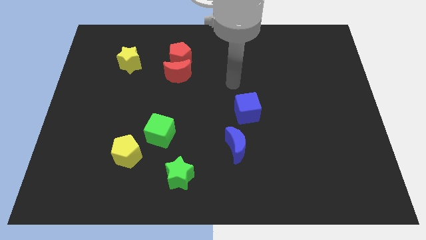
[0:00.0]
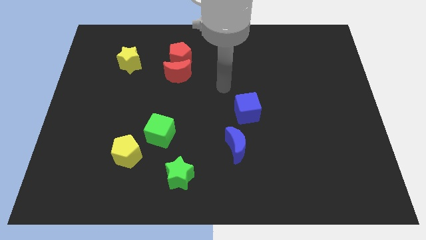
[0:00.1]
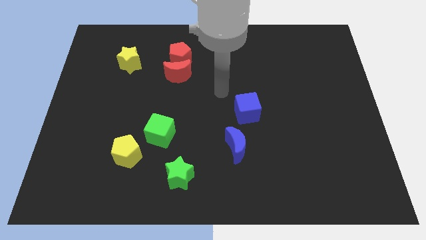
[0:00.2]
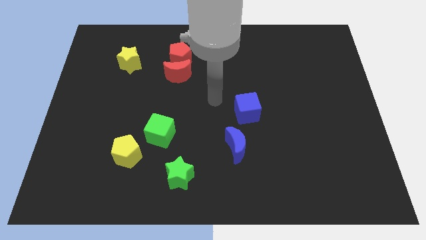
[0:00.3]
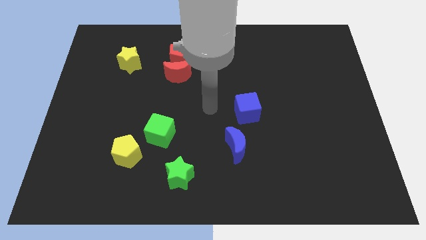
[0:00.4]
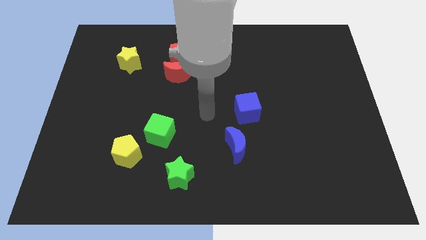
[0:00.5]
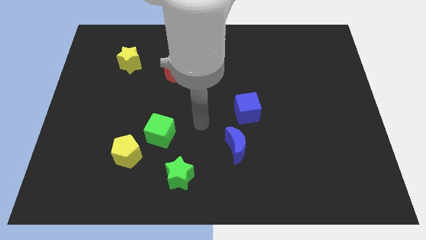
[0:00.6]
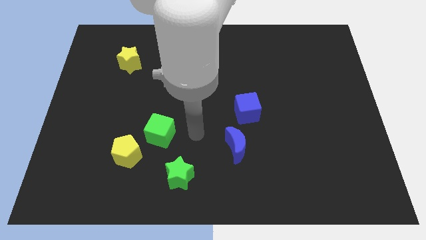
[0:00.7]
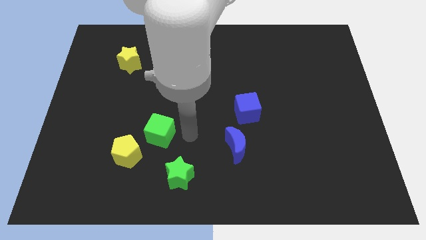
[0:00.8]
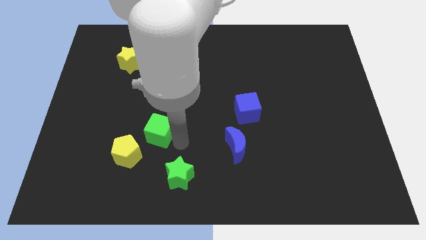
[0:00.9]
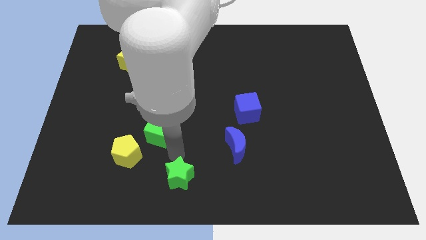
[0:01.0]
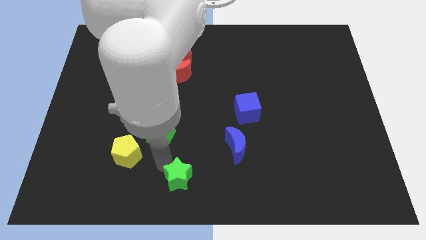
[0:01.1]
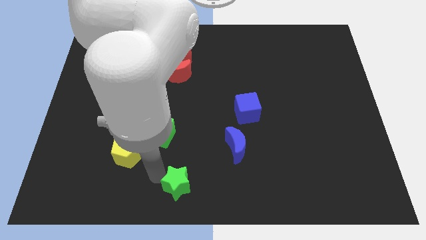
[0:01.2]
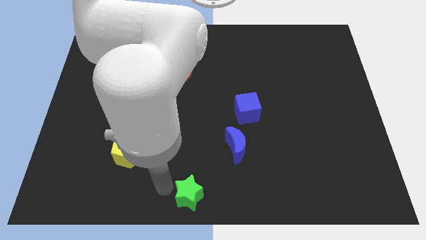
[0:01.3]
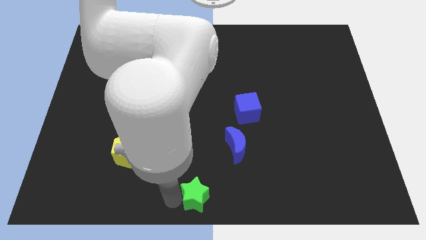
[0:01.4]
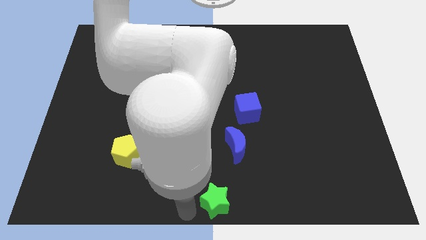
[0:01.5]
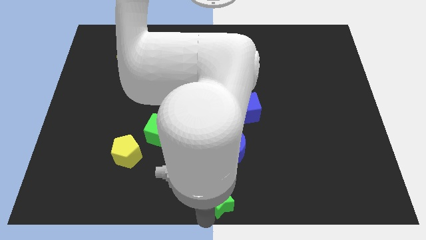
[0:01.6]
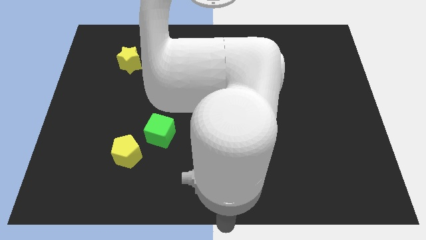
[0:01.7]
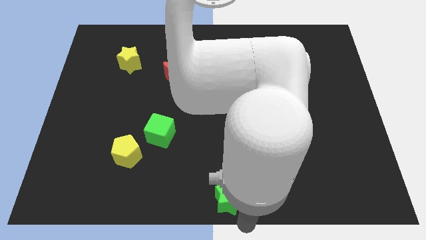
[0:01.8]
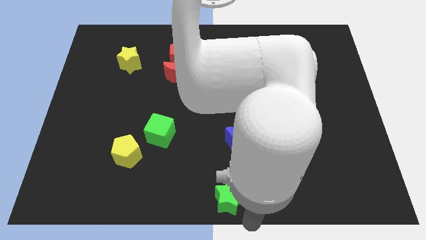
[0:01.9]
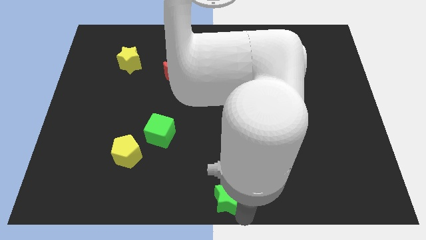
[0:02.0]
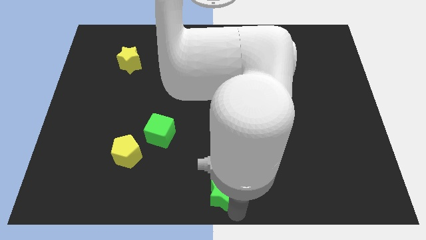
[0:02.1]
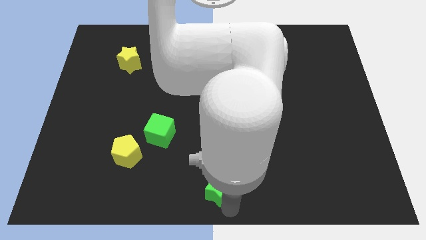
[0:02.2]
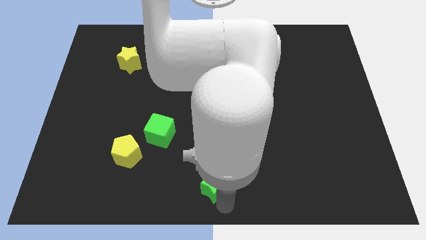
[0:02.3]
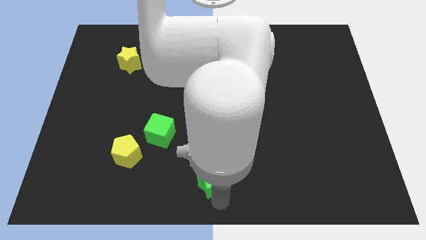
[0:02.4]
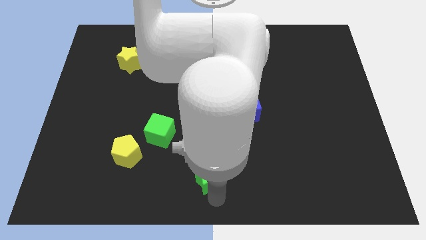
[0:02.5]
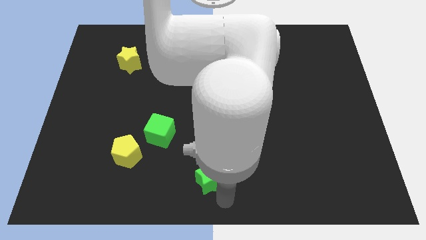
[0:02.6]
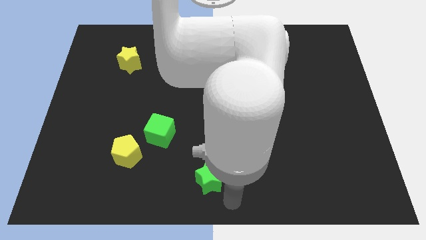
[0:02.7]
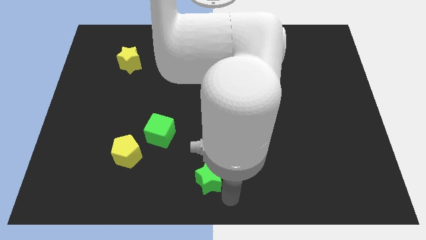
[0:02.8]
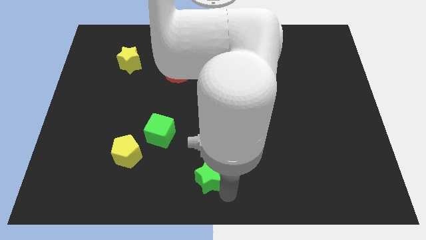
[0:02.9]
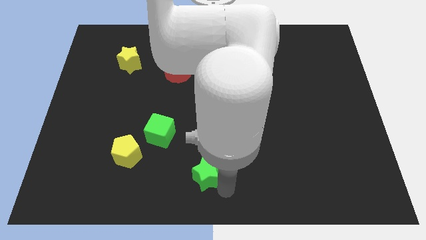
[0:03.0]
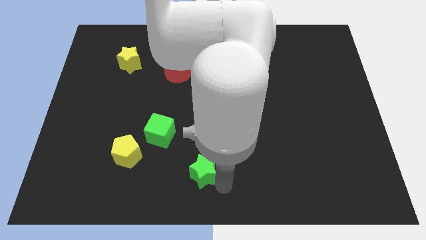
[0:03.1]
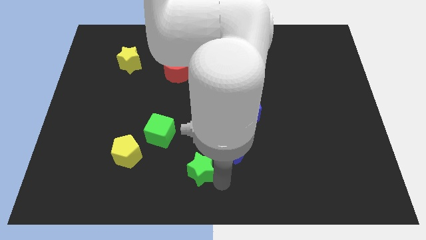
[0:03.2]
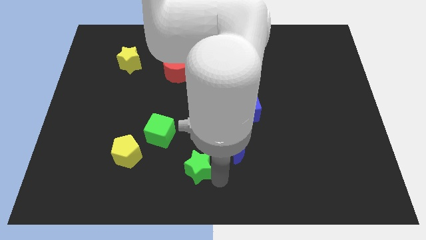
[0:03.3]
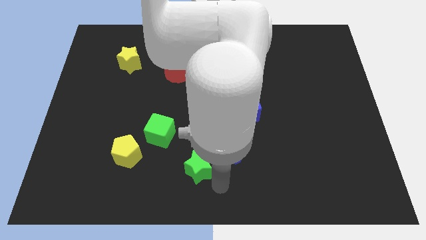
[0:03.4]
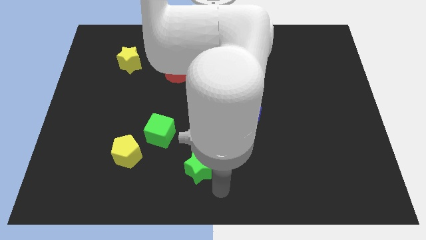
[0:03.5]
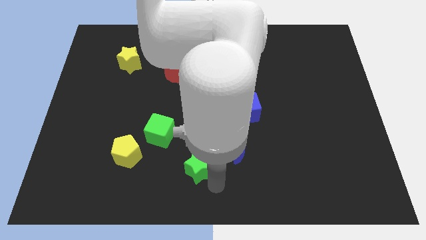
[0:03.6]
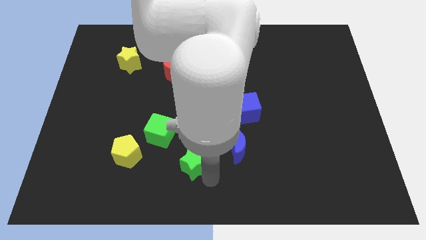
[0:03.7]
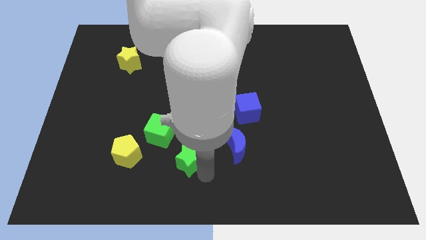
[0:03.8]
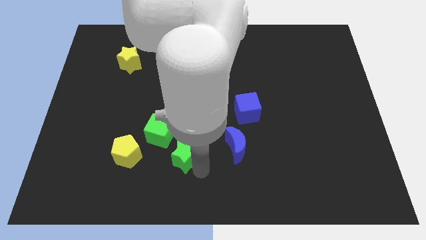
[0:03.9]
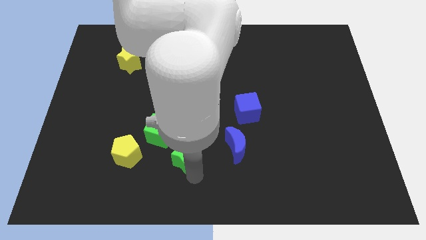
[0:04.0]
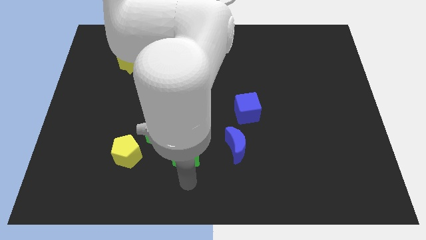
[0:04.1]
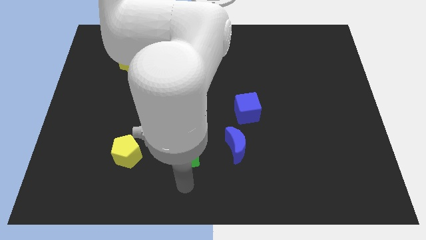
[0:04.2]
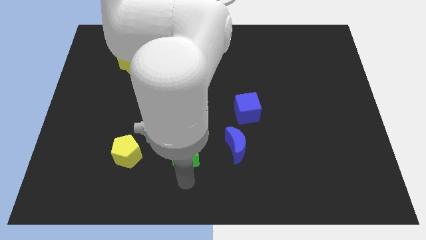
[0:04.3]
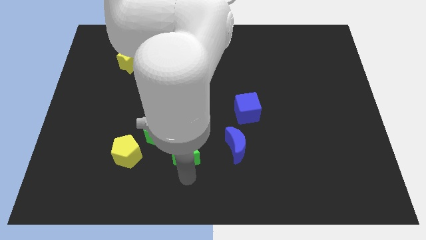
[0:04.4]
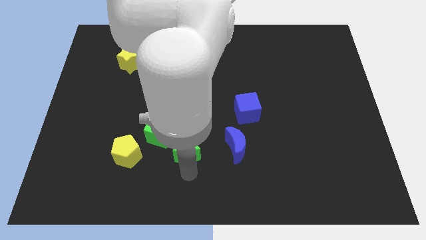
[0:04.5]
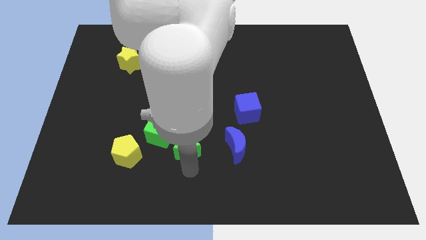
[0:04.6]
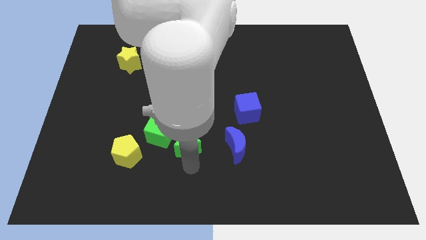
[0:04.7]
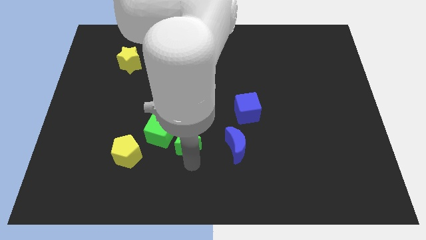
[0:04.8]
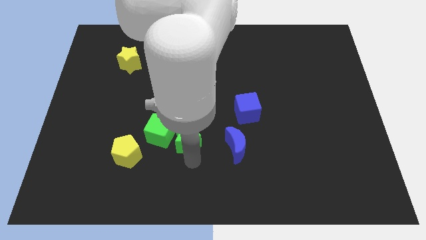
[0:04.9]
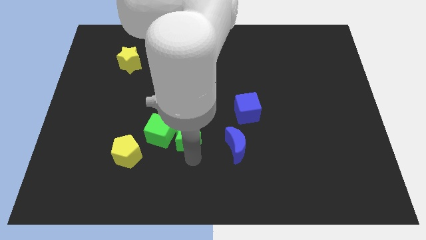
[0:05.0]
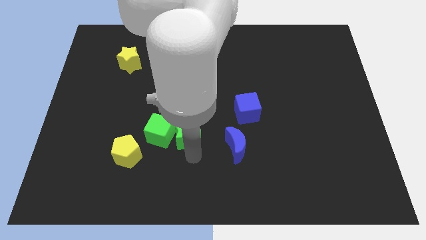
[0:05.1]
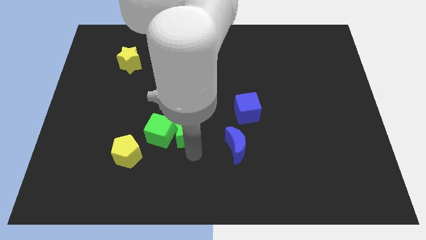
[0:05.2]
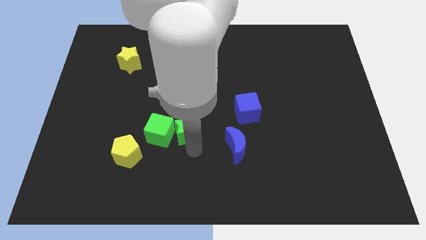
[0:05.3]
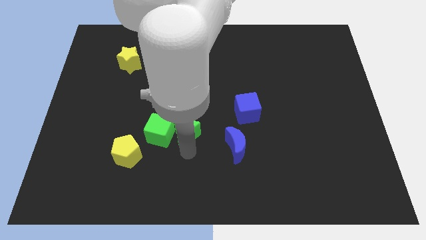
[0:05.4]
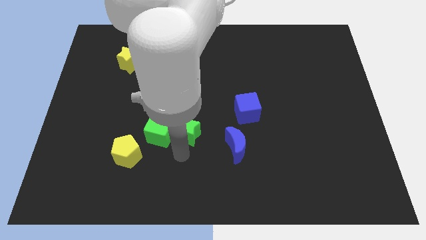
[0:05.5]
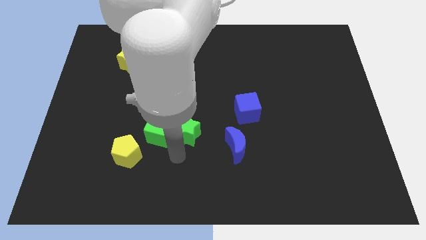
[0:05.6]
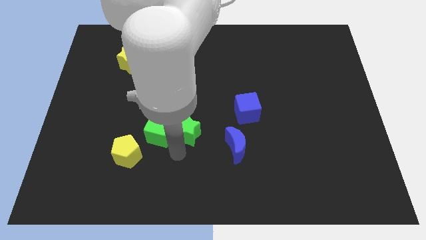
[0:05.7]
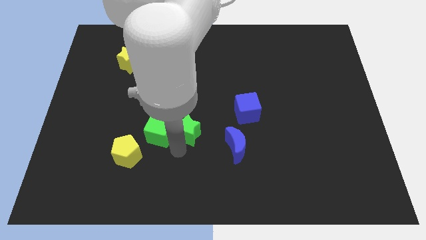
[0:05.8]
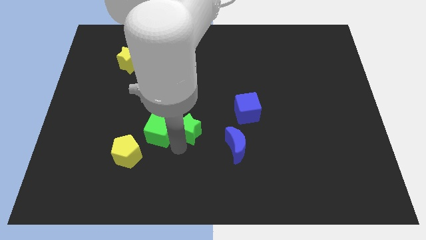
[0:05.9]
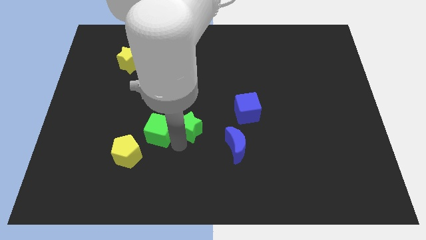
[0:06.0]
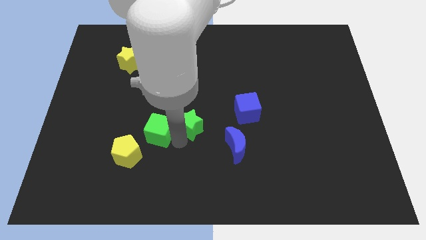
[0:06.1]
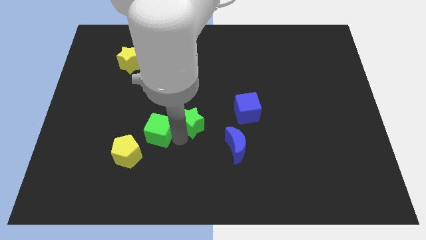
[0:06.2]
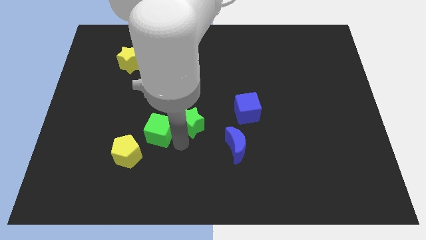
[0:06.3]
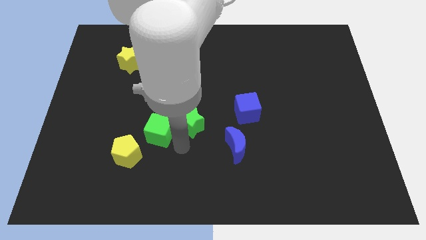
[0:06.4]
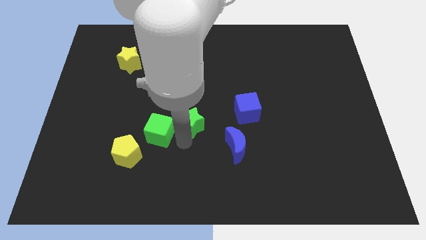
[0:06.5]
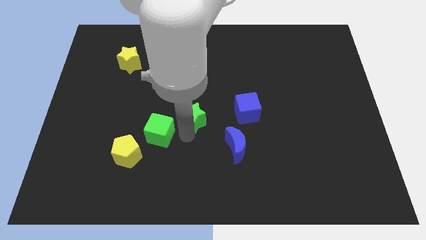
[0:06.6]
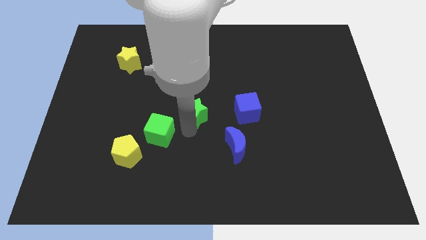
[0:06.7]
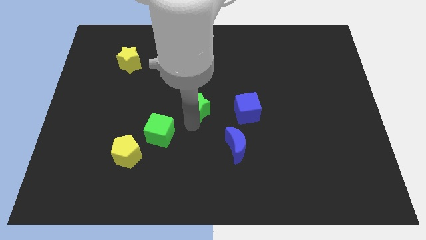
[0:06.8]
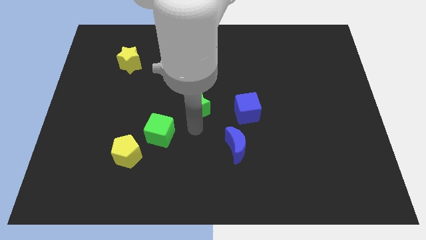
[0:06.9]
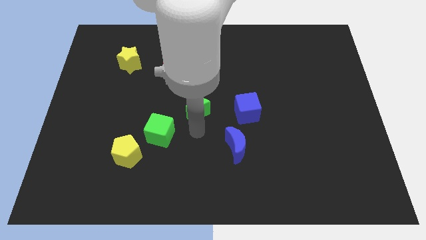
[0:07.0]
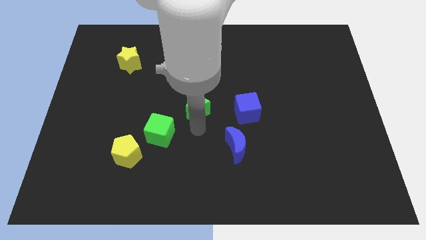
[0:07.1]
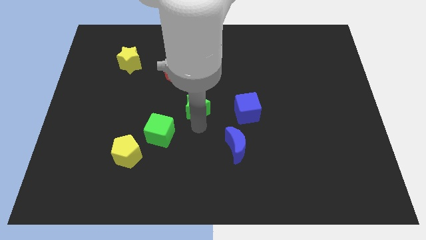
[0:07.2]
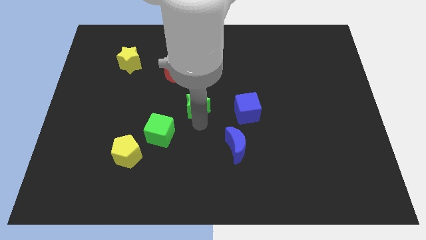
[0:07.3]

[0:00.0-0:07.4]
slide the green star diagonally down and to the right of the red moon
